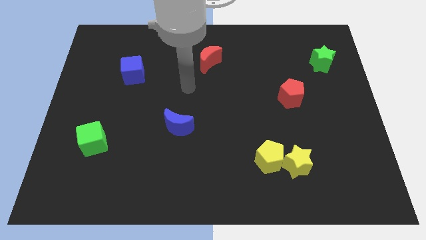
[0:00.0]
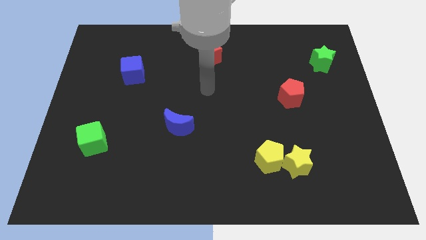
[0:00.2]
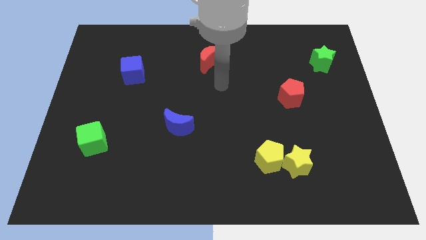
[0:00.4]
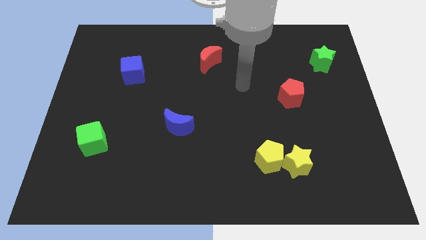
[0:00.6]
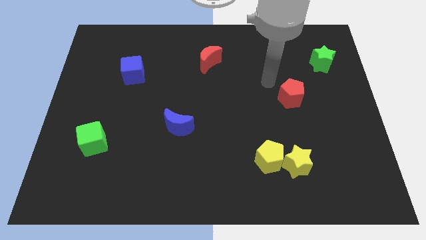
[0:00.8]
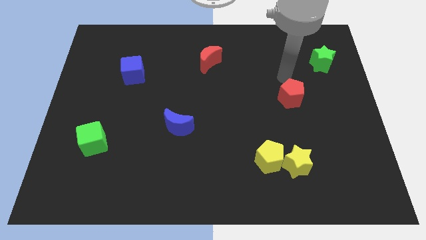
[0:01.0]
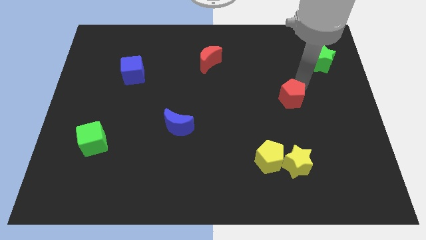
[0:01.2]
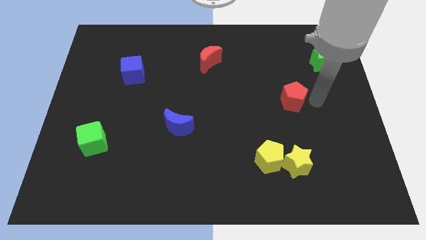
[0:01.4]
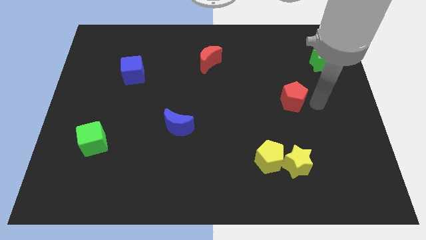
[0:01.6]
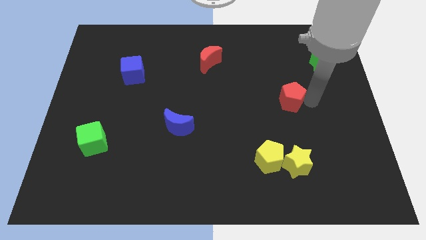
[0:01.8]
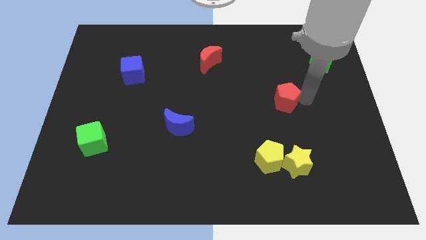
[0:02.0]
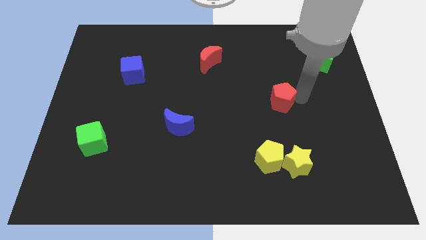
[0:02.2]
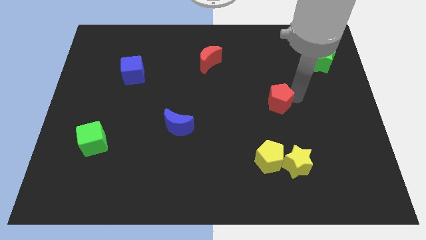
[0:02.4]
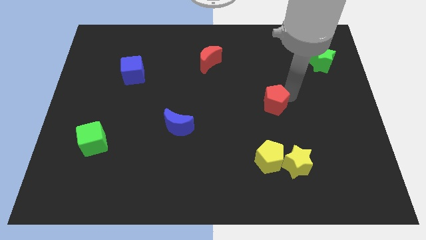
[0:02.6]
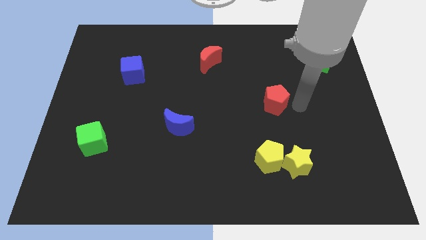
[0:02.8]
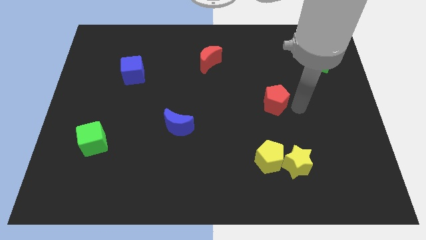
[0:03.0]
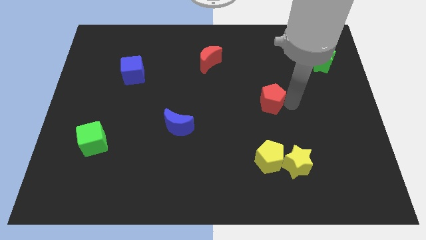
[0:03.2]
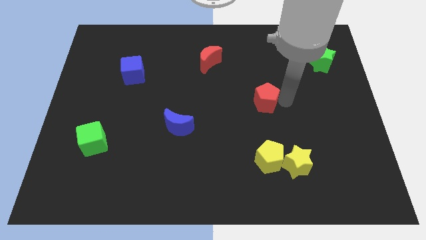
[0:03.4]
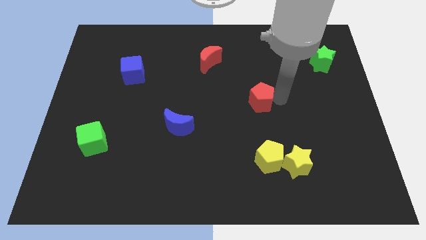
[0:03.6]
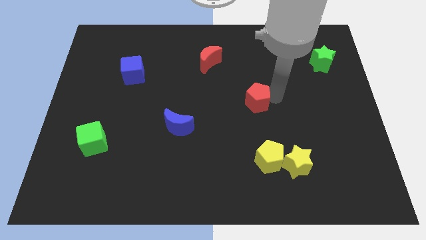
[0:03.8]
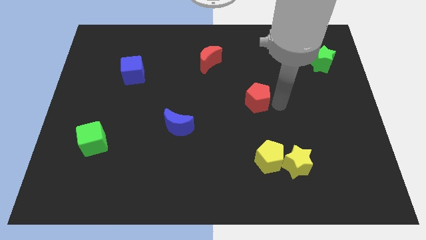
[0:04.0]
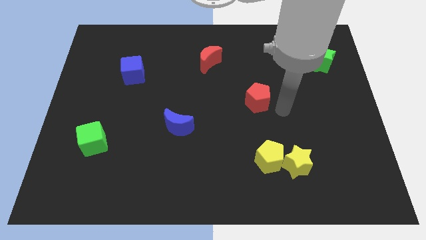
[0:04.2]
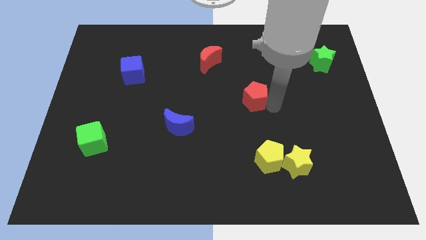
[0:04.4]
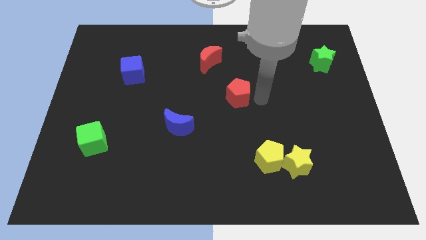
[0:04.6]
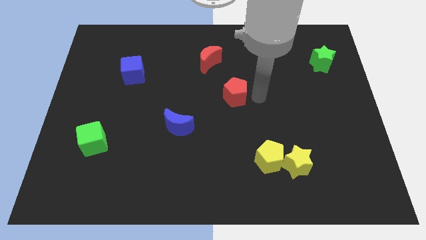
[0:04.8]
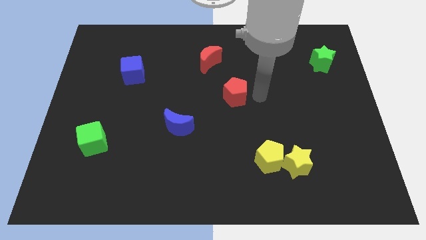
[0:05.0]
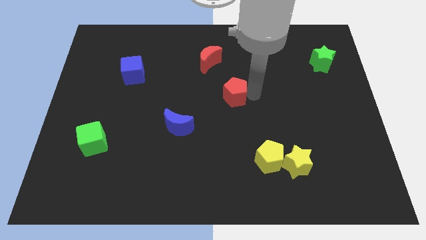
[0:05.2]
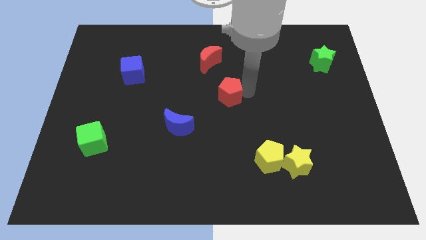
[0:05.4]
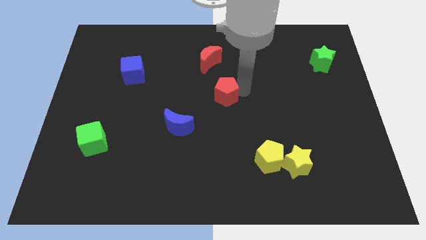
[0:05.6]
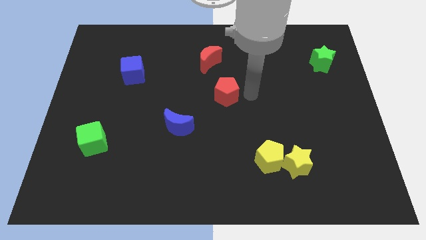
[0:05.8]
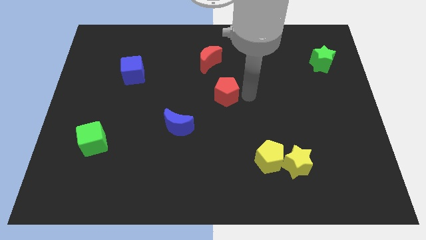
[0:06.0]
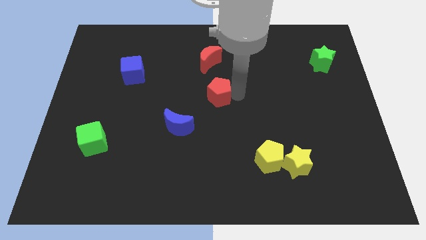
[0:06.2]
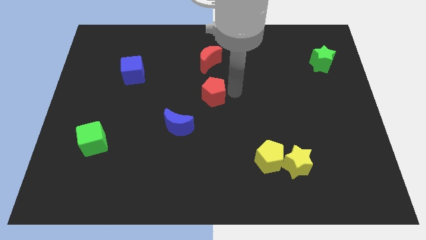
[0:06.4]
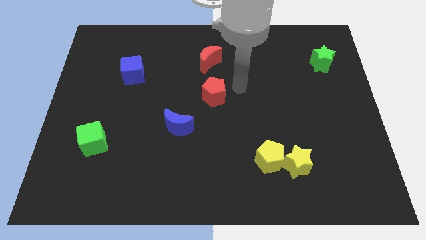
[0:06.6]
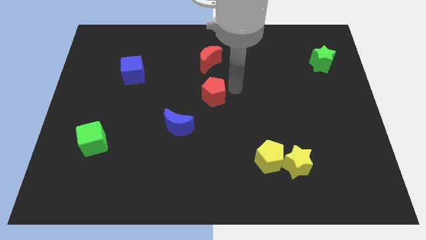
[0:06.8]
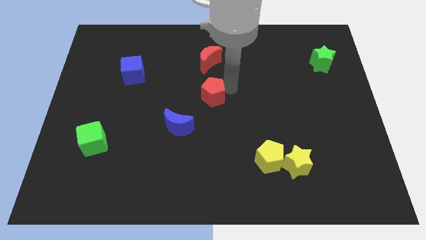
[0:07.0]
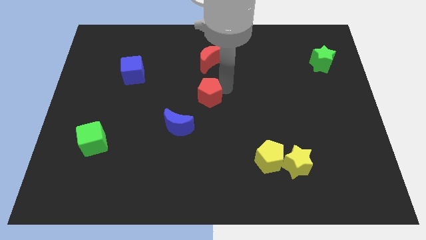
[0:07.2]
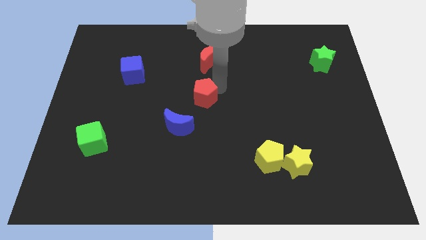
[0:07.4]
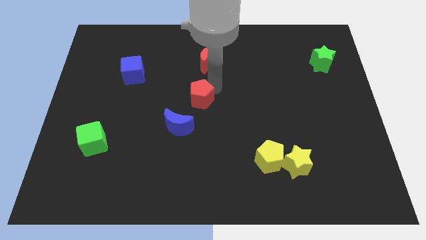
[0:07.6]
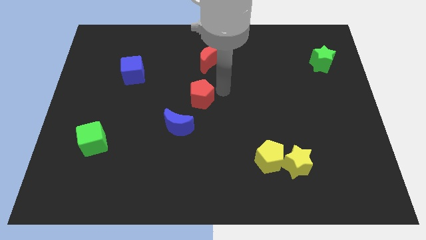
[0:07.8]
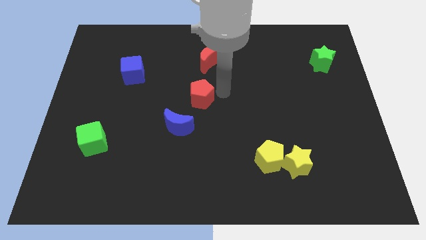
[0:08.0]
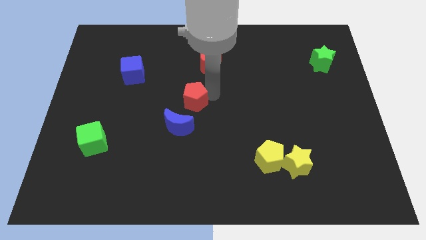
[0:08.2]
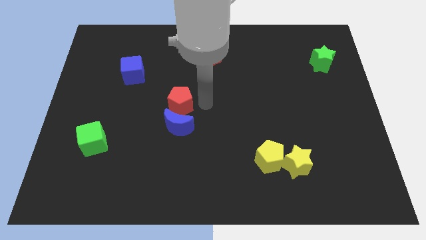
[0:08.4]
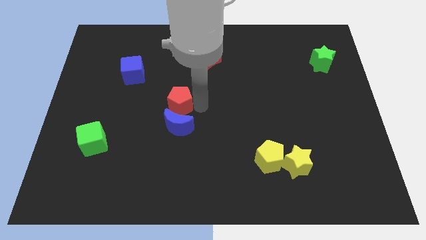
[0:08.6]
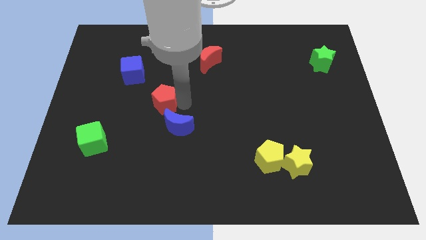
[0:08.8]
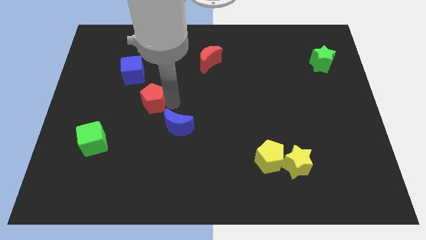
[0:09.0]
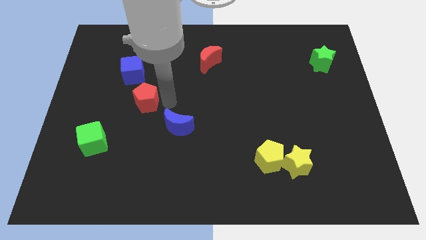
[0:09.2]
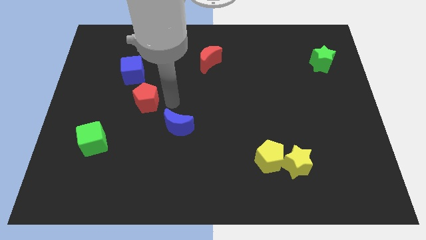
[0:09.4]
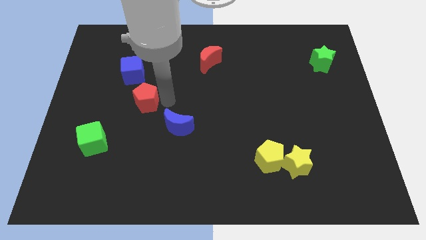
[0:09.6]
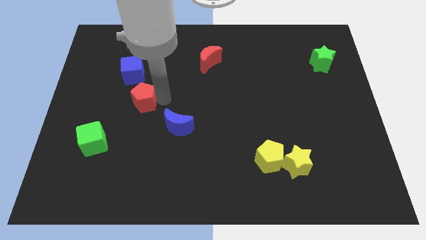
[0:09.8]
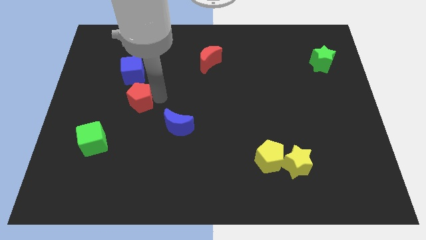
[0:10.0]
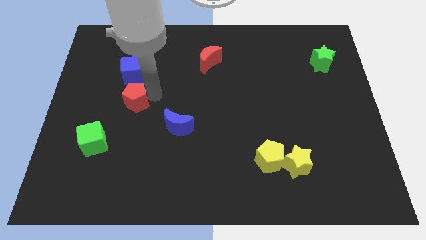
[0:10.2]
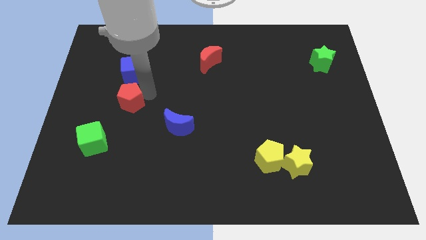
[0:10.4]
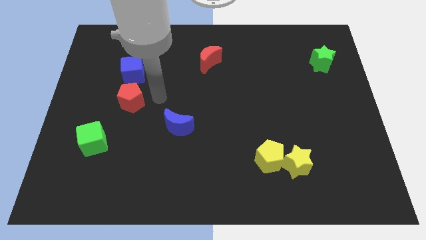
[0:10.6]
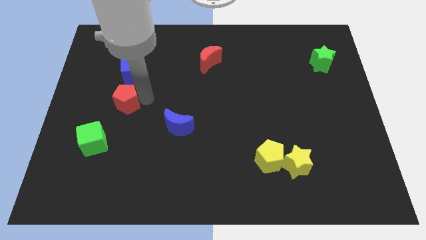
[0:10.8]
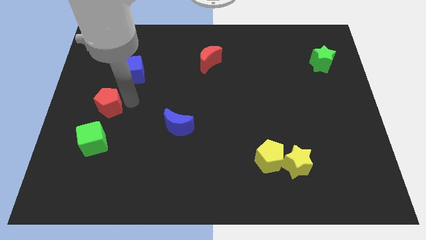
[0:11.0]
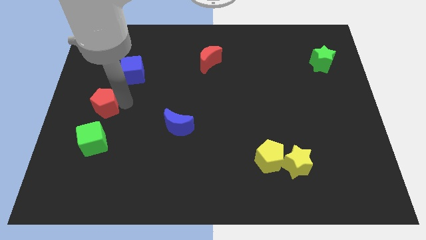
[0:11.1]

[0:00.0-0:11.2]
move the red pentagon to the left side of the board
